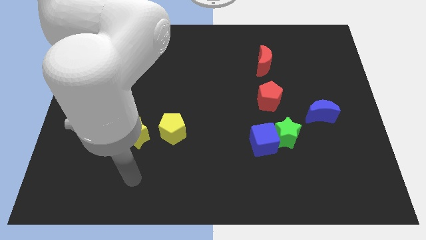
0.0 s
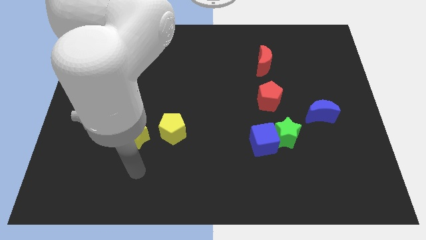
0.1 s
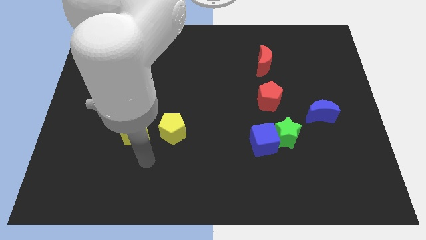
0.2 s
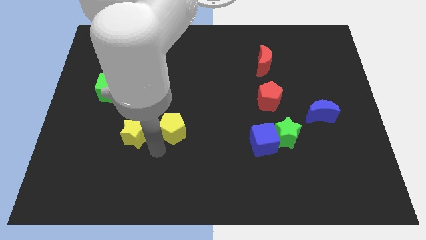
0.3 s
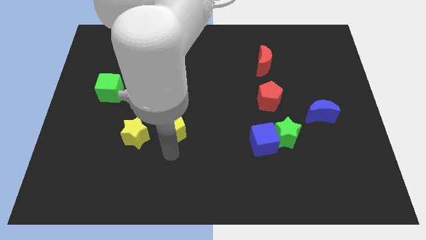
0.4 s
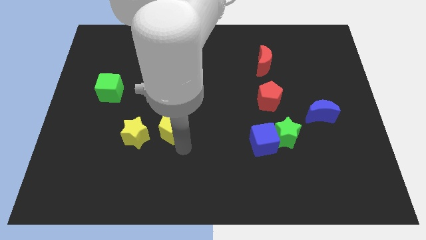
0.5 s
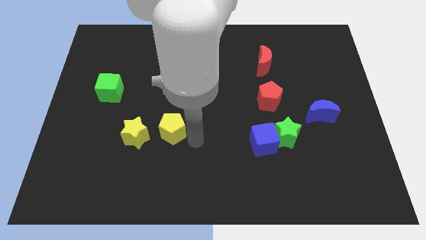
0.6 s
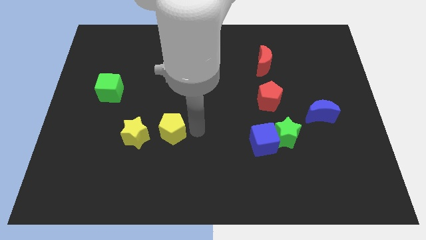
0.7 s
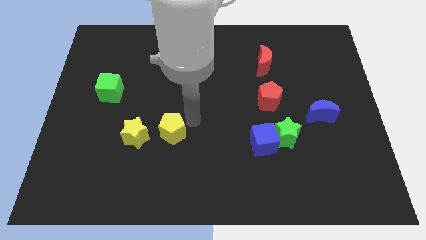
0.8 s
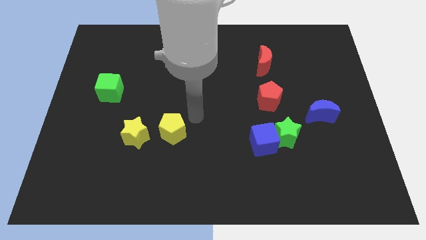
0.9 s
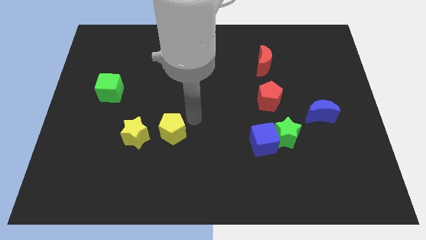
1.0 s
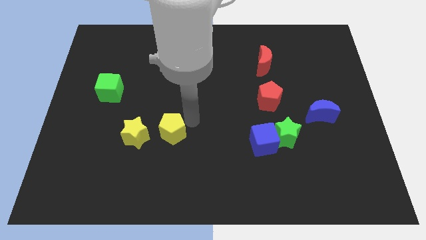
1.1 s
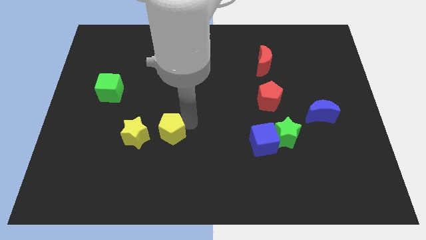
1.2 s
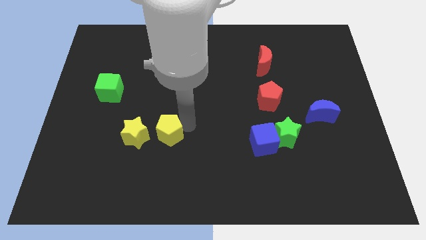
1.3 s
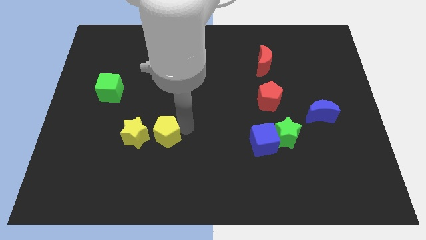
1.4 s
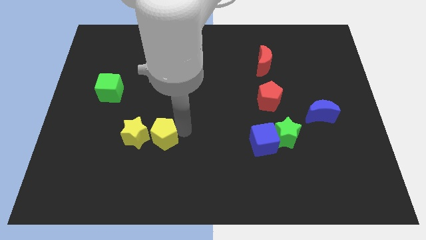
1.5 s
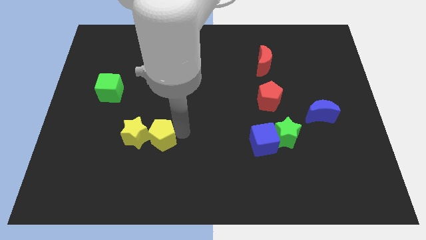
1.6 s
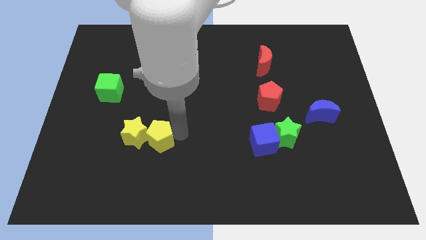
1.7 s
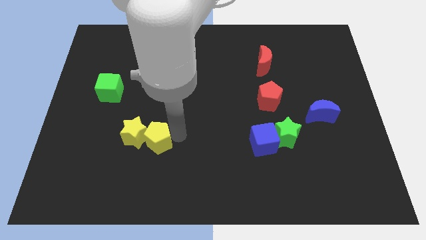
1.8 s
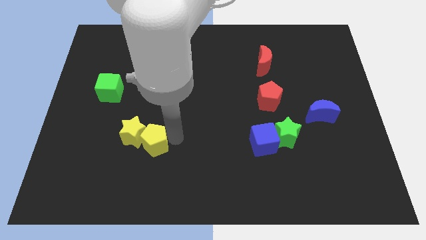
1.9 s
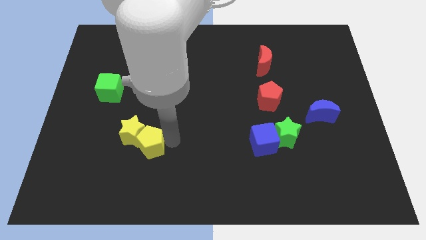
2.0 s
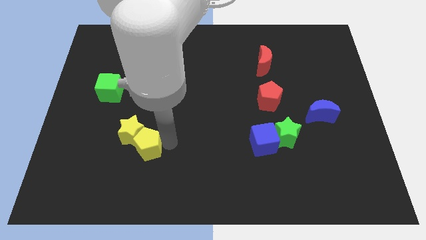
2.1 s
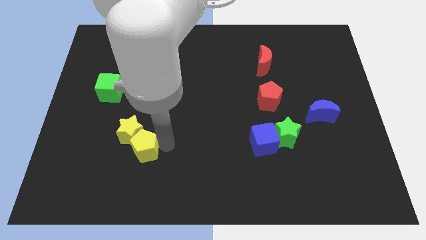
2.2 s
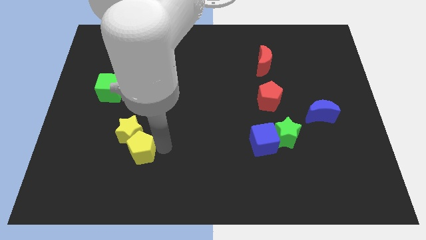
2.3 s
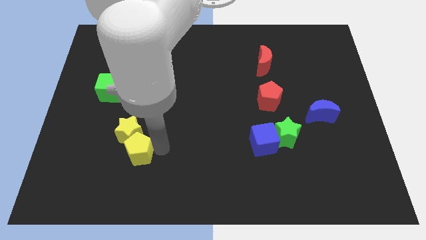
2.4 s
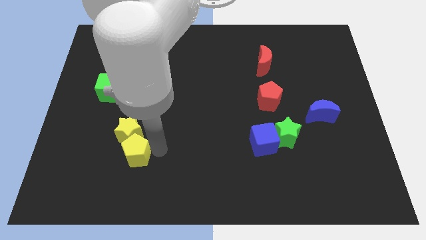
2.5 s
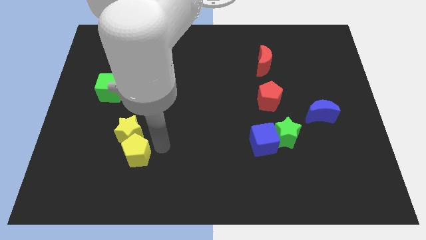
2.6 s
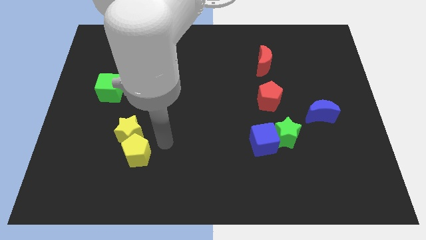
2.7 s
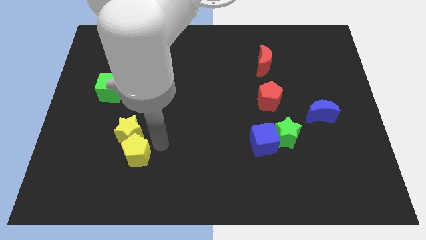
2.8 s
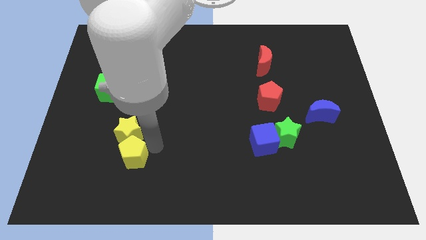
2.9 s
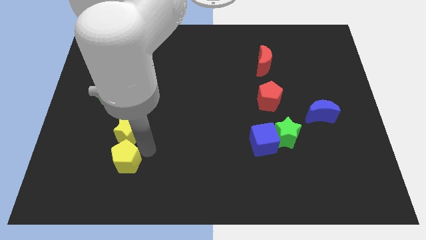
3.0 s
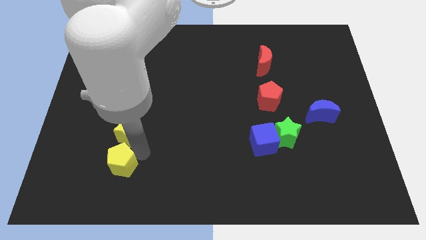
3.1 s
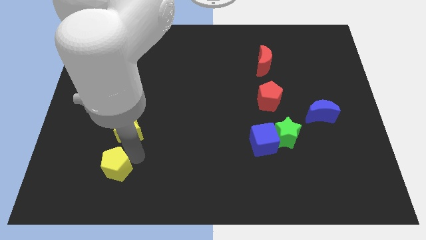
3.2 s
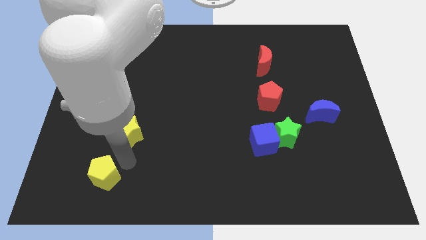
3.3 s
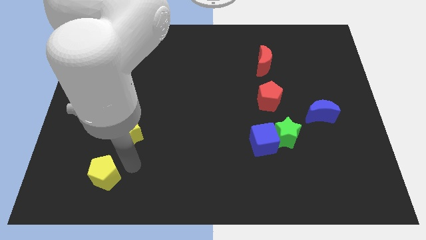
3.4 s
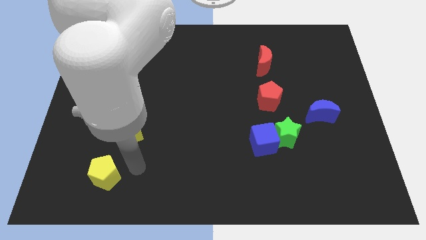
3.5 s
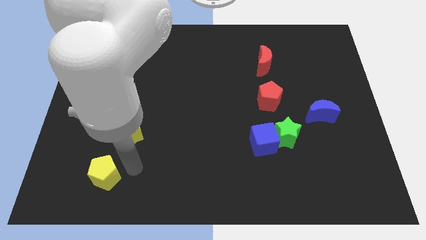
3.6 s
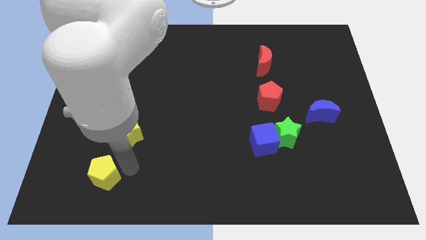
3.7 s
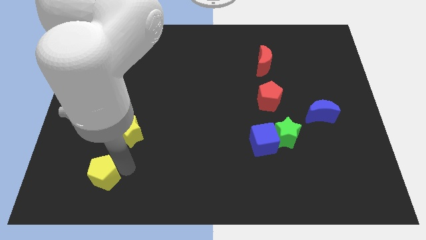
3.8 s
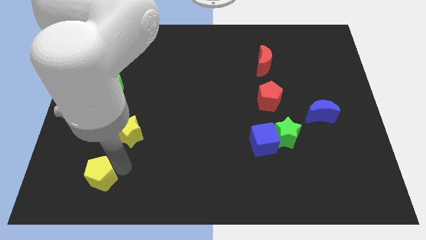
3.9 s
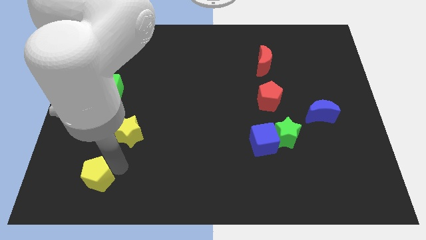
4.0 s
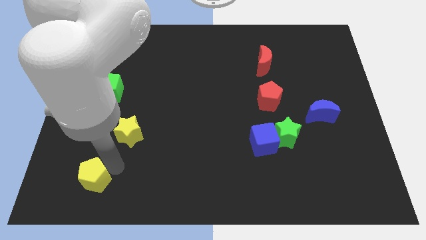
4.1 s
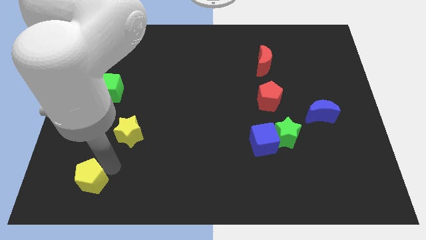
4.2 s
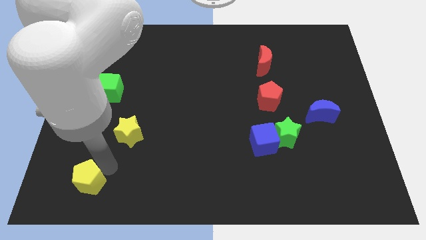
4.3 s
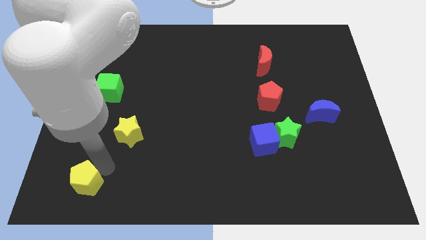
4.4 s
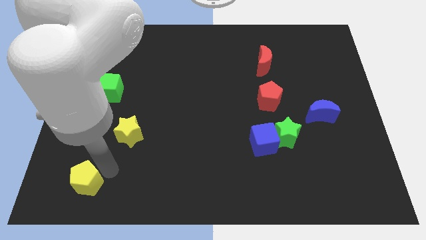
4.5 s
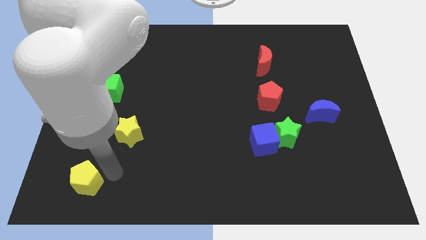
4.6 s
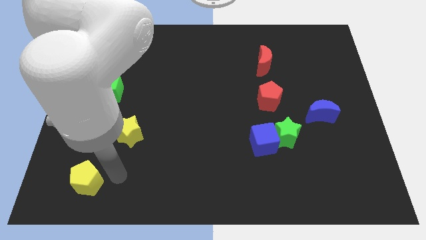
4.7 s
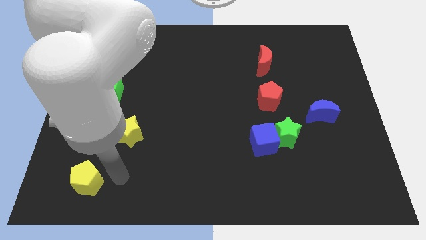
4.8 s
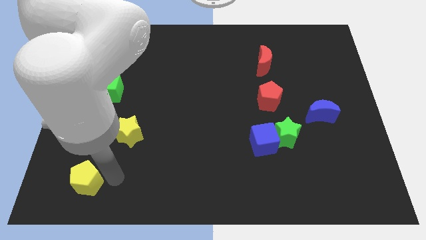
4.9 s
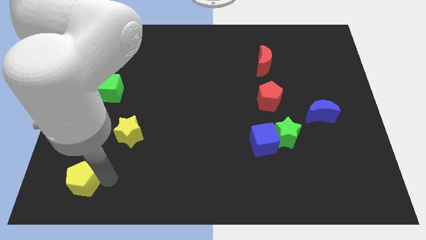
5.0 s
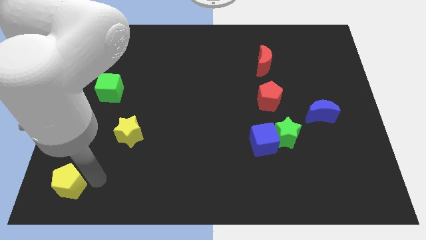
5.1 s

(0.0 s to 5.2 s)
put the yellow pentagon to the bottom left of the board

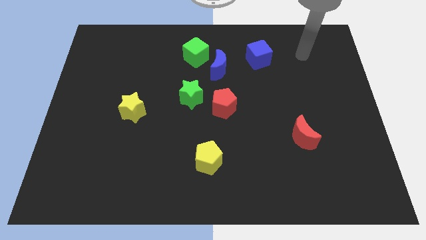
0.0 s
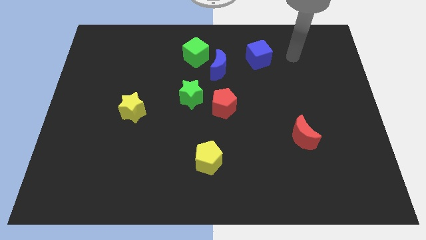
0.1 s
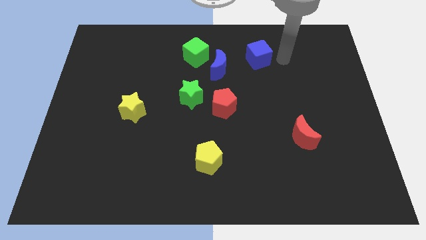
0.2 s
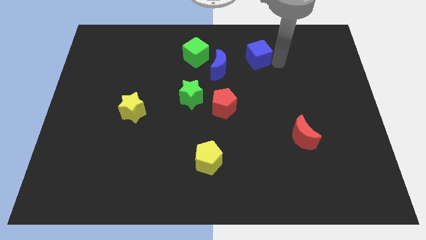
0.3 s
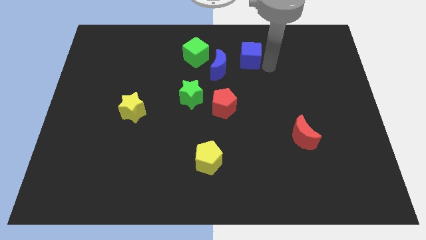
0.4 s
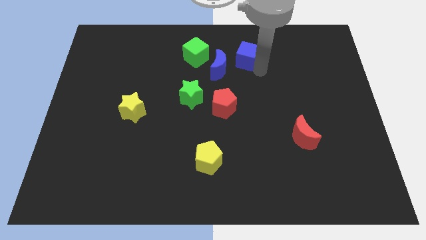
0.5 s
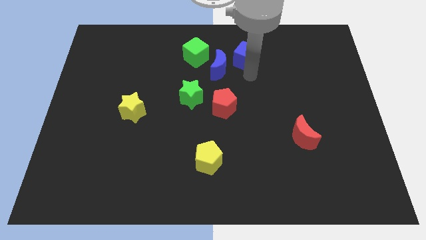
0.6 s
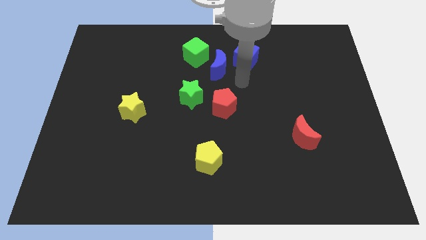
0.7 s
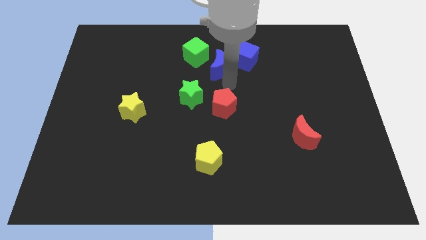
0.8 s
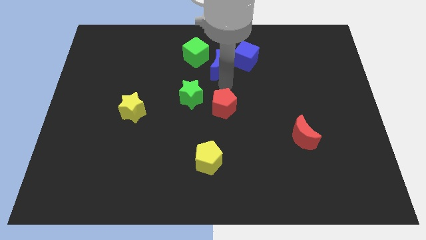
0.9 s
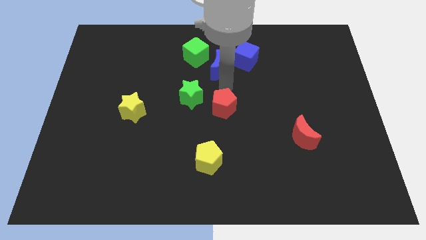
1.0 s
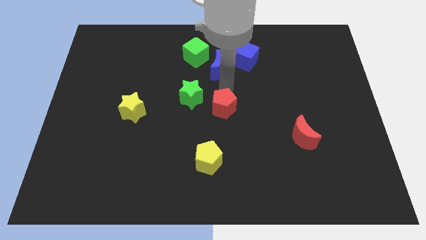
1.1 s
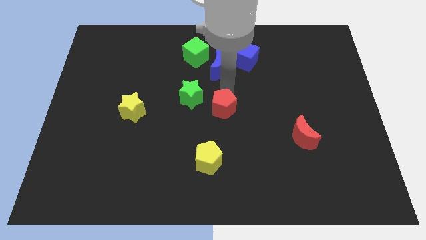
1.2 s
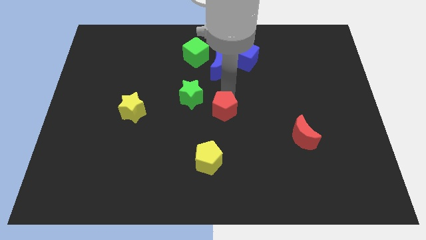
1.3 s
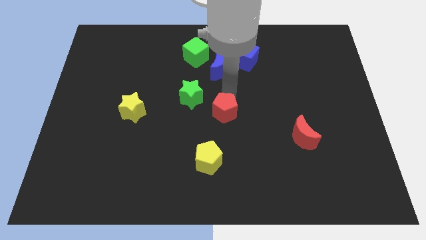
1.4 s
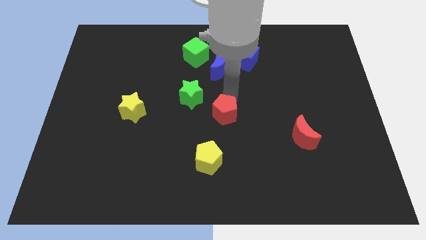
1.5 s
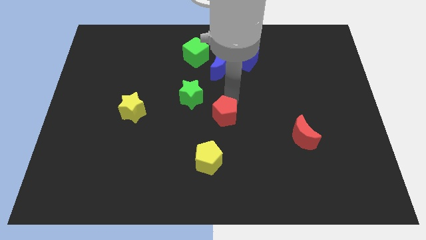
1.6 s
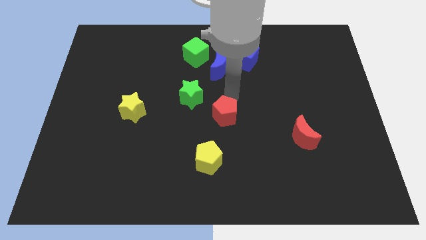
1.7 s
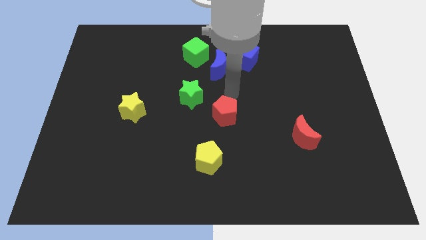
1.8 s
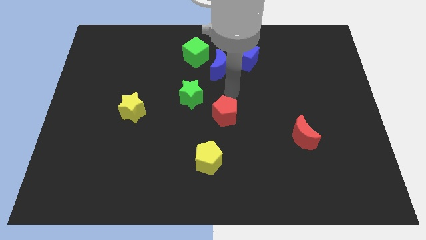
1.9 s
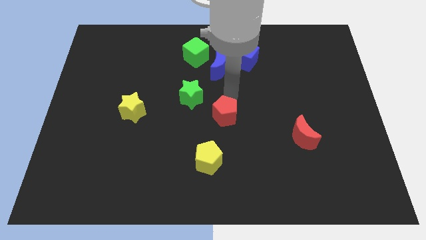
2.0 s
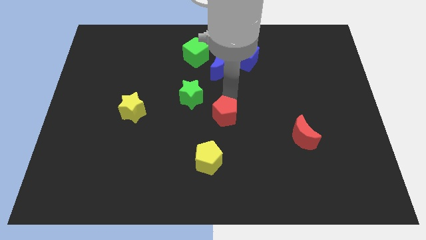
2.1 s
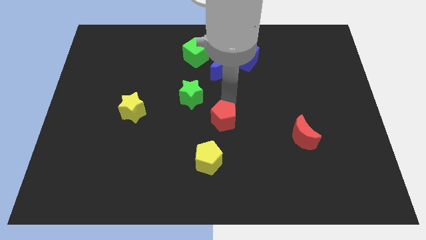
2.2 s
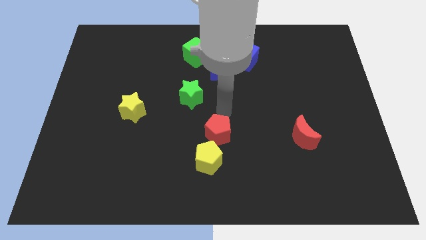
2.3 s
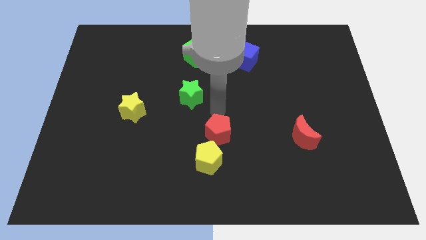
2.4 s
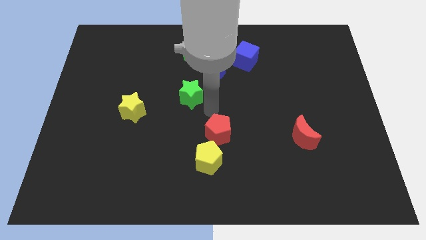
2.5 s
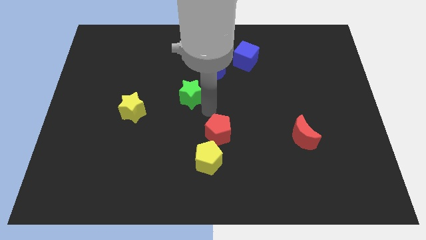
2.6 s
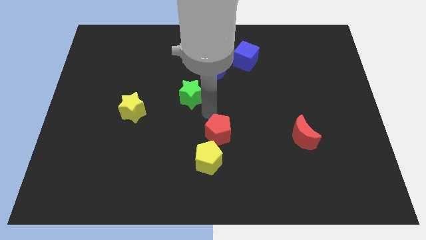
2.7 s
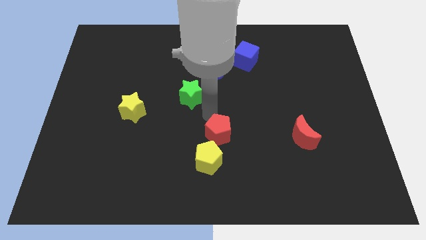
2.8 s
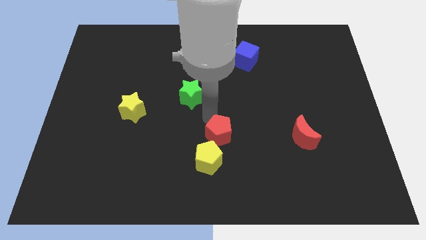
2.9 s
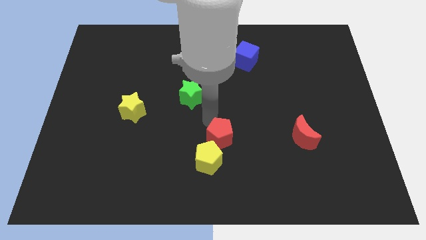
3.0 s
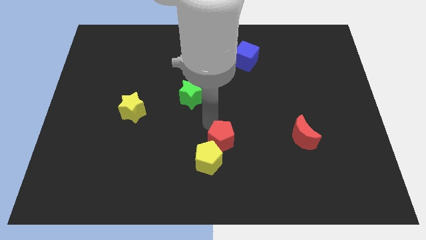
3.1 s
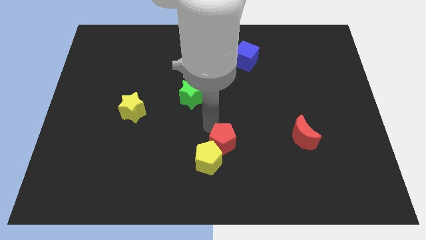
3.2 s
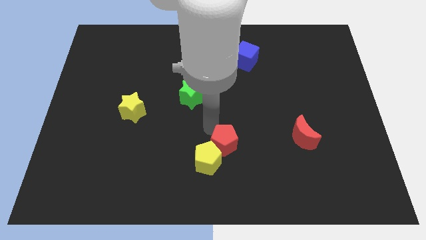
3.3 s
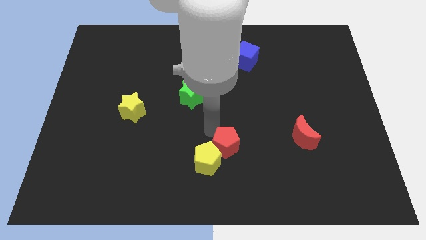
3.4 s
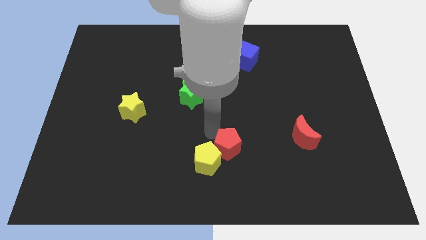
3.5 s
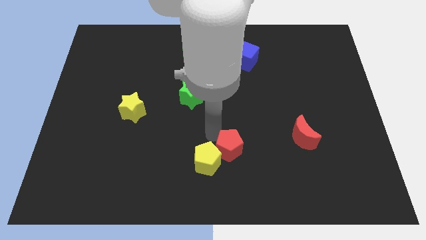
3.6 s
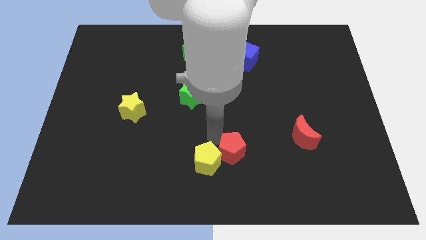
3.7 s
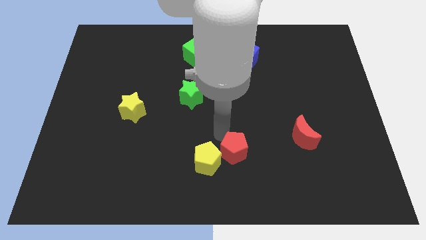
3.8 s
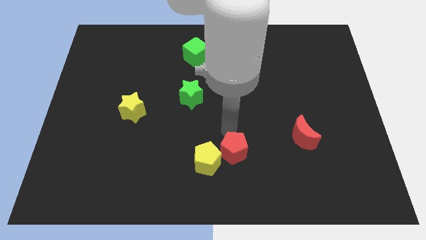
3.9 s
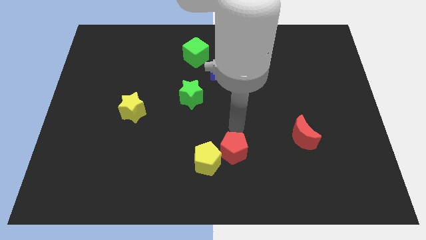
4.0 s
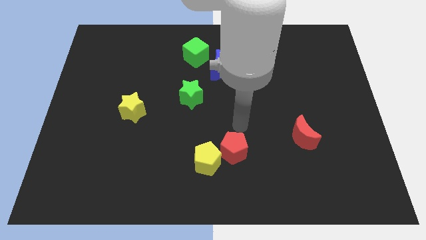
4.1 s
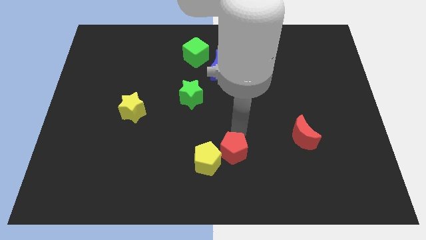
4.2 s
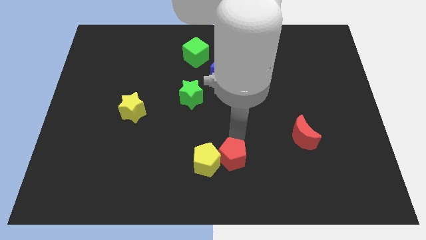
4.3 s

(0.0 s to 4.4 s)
slide the red pentagon to the bottom
